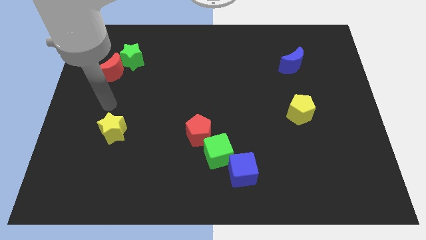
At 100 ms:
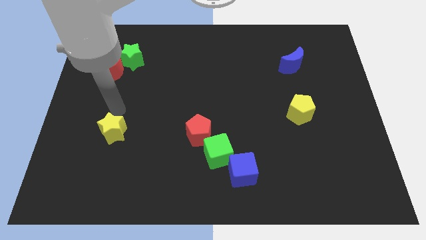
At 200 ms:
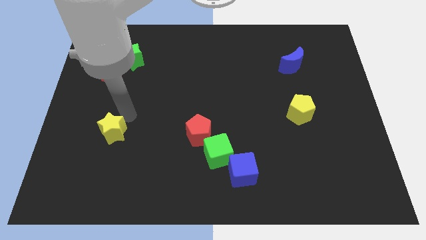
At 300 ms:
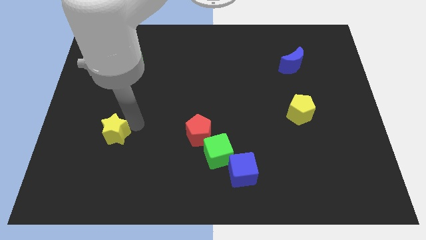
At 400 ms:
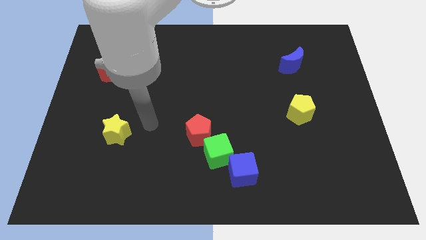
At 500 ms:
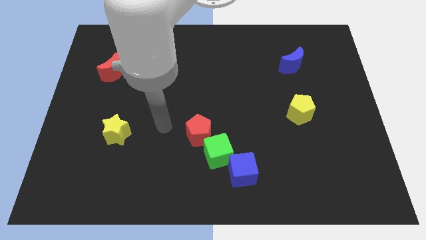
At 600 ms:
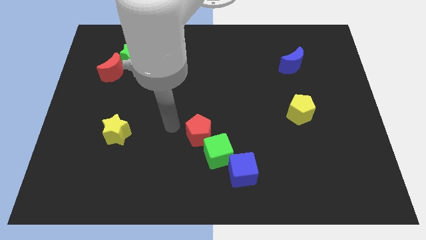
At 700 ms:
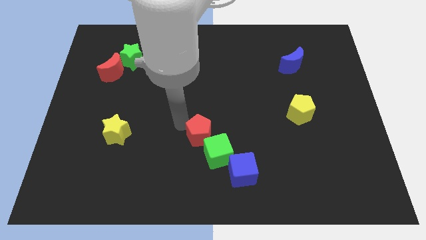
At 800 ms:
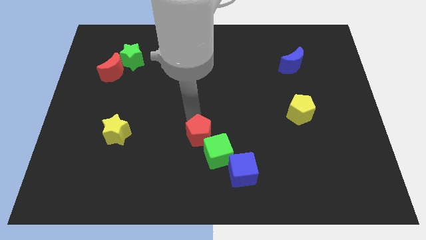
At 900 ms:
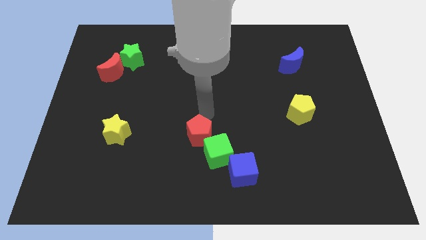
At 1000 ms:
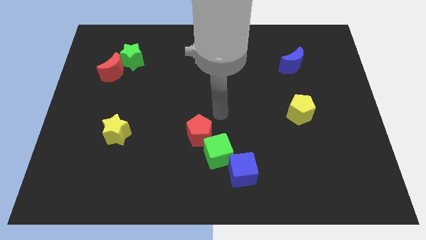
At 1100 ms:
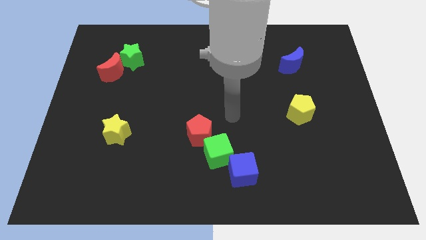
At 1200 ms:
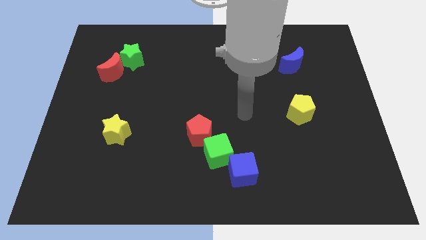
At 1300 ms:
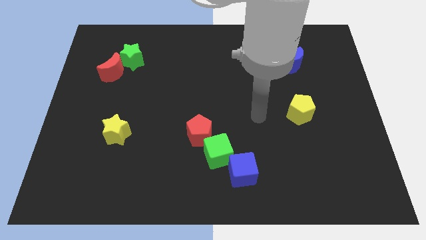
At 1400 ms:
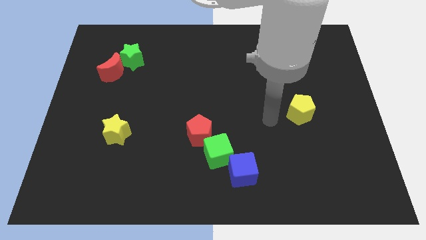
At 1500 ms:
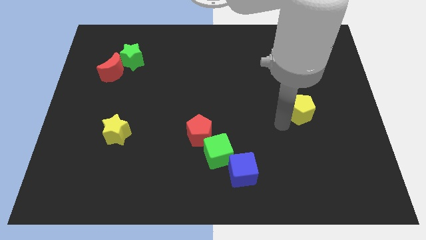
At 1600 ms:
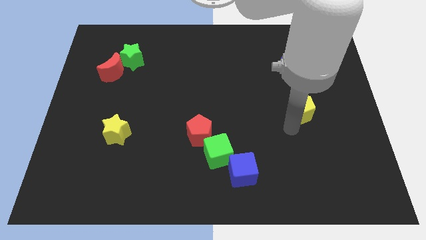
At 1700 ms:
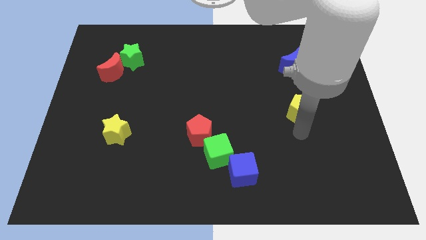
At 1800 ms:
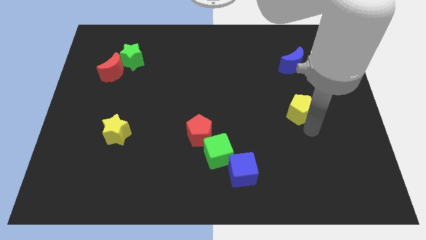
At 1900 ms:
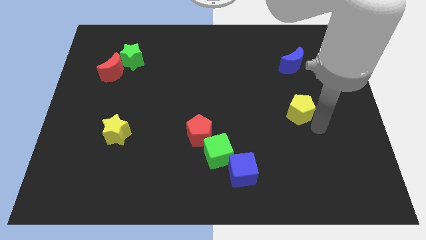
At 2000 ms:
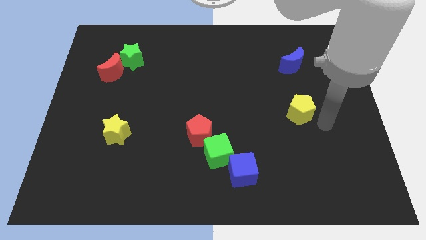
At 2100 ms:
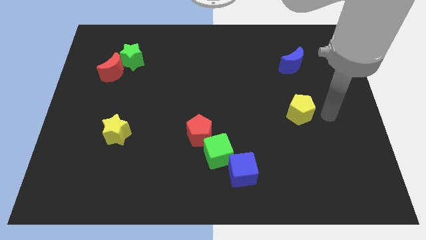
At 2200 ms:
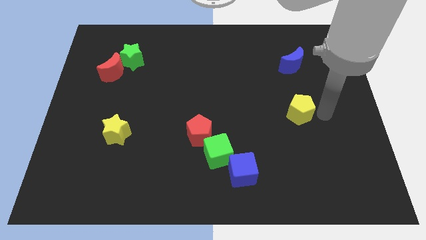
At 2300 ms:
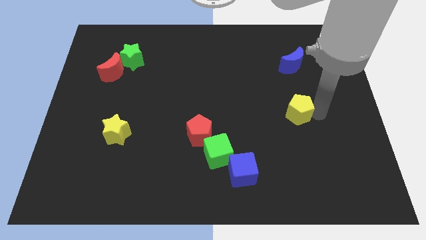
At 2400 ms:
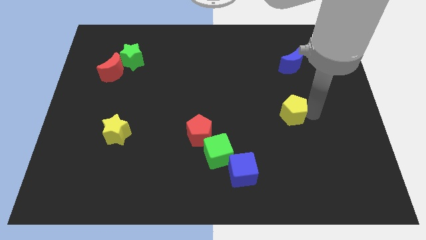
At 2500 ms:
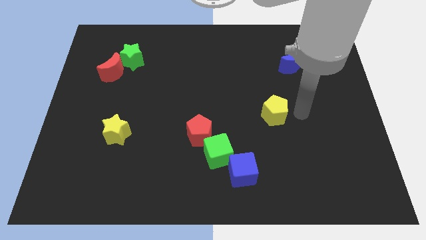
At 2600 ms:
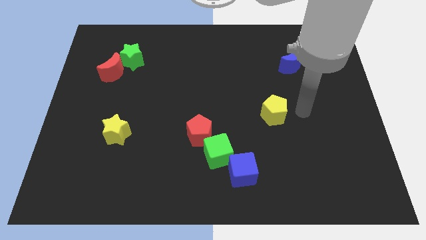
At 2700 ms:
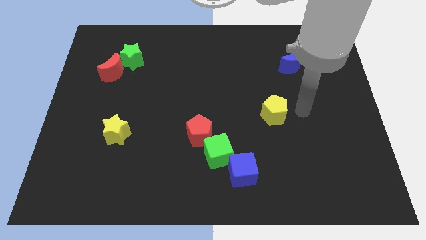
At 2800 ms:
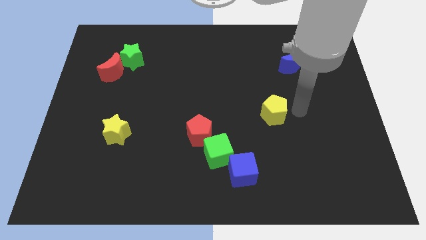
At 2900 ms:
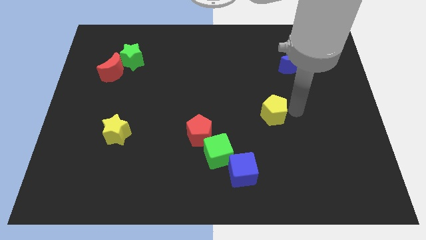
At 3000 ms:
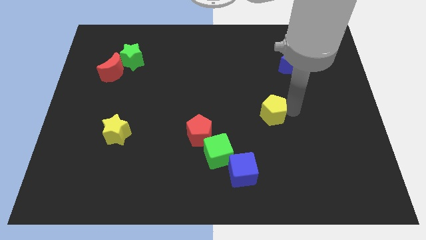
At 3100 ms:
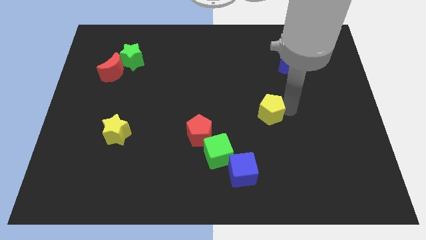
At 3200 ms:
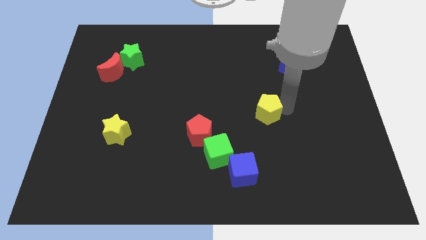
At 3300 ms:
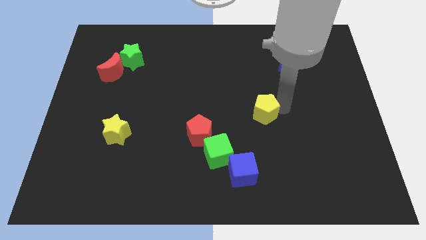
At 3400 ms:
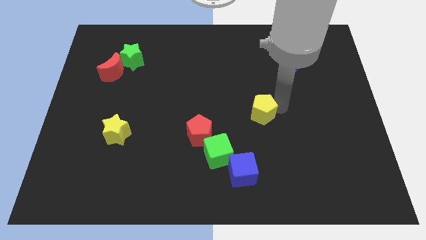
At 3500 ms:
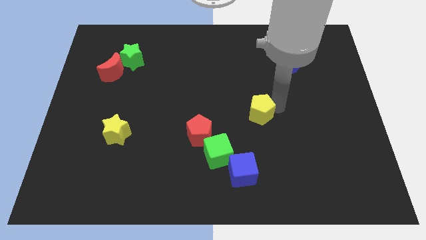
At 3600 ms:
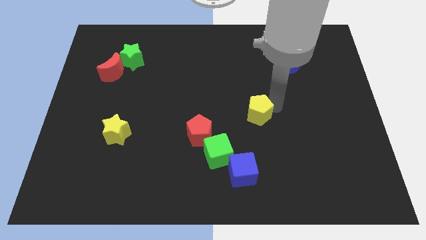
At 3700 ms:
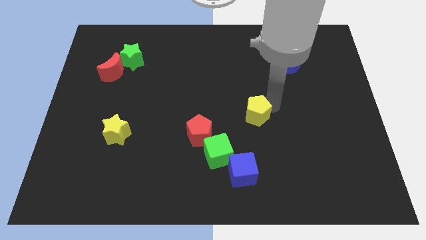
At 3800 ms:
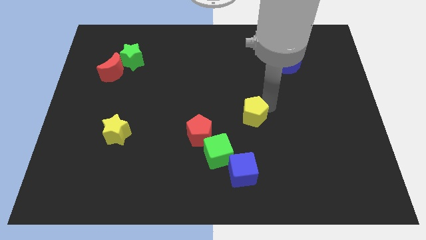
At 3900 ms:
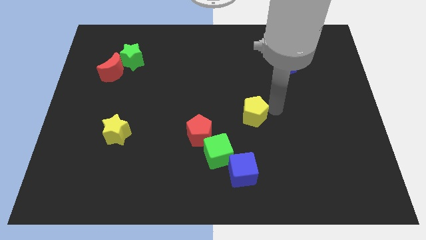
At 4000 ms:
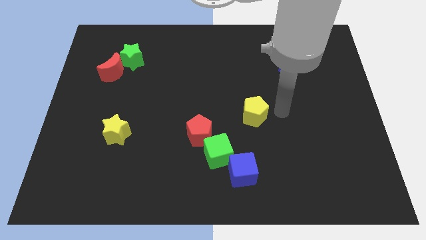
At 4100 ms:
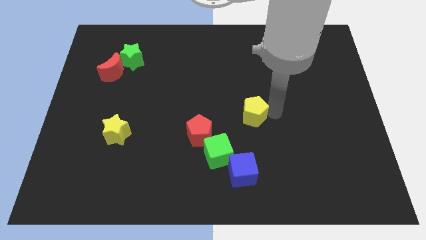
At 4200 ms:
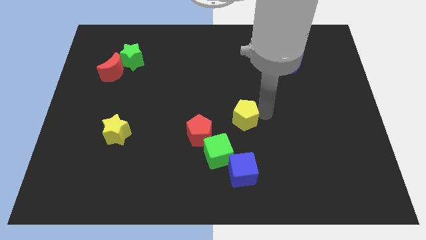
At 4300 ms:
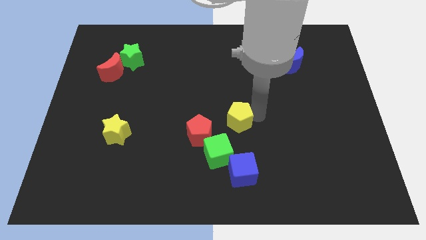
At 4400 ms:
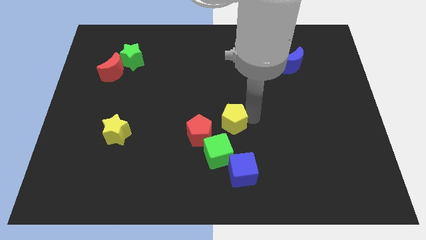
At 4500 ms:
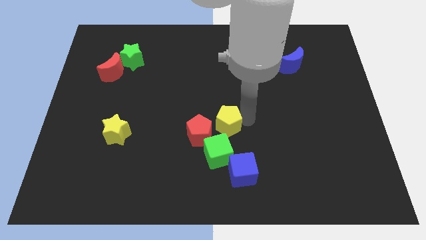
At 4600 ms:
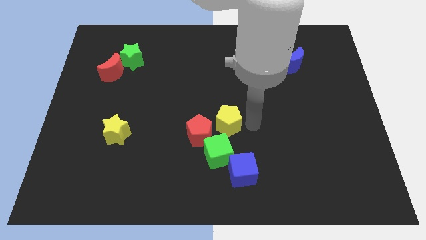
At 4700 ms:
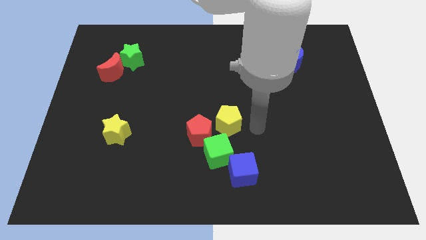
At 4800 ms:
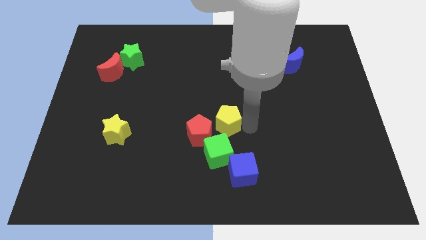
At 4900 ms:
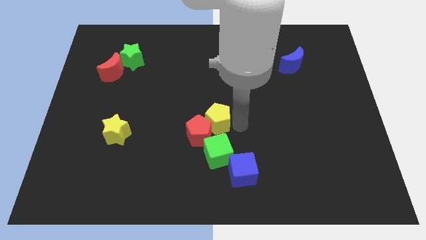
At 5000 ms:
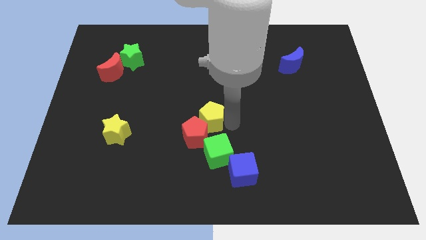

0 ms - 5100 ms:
slide the yellow pentagon to the left

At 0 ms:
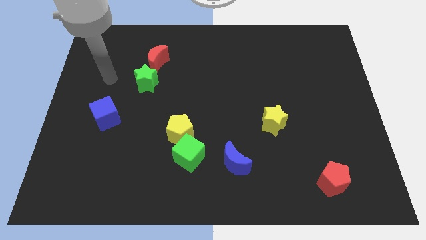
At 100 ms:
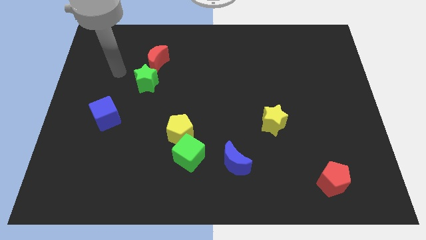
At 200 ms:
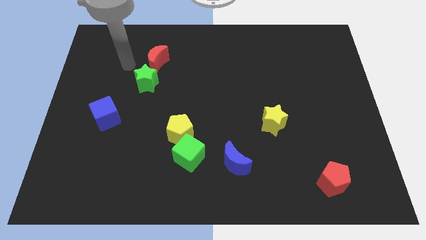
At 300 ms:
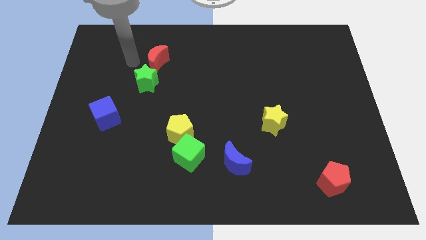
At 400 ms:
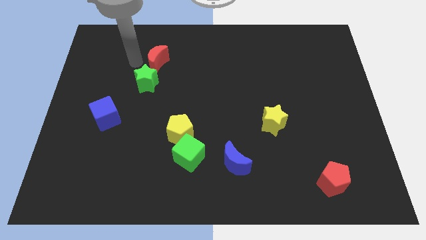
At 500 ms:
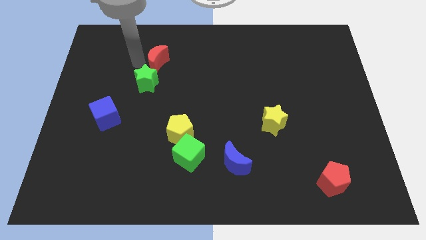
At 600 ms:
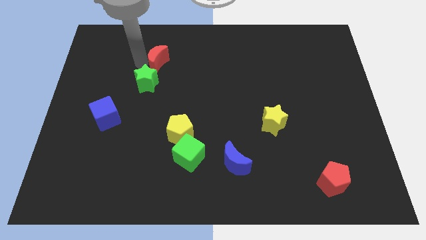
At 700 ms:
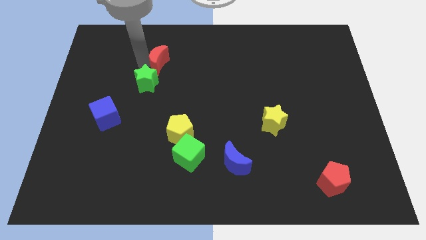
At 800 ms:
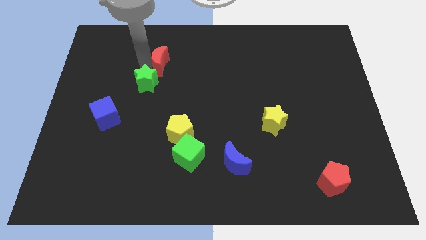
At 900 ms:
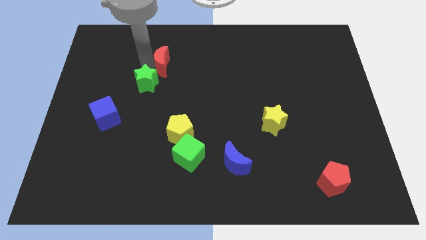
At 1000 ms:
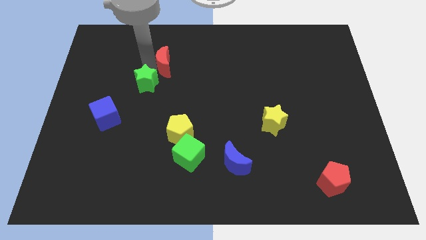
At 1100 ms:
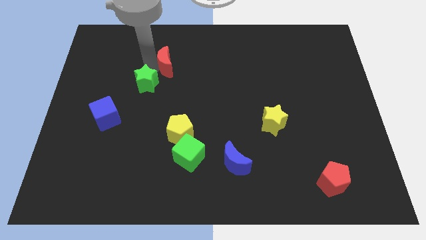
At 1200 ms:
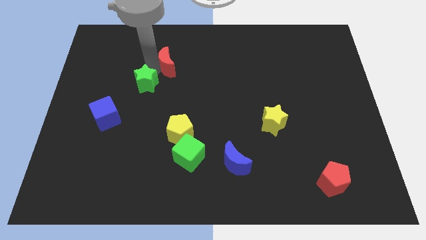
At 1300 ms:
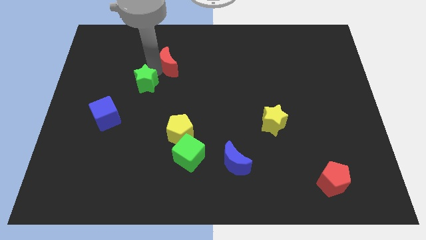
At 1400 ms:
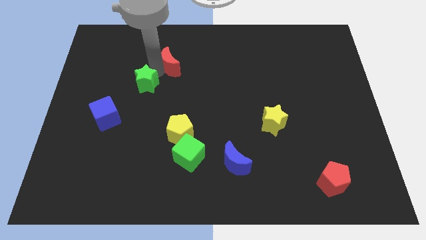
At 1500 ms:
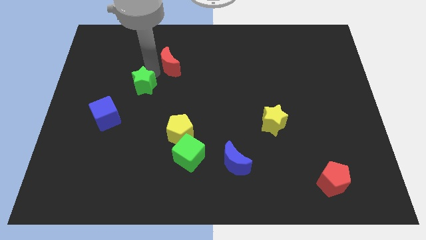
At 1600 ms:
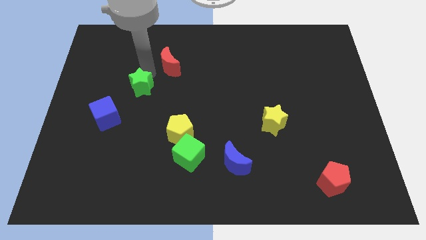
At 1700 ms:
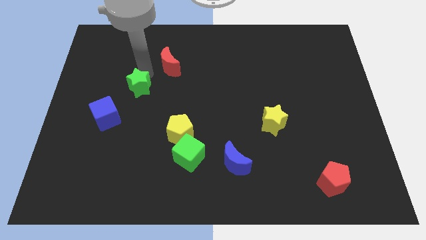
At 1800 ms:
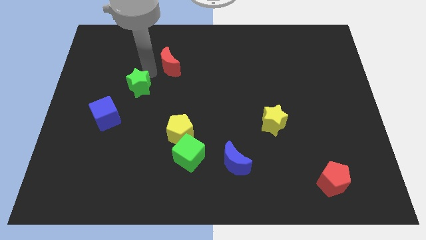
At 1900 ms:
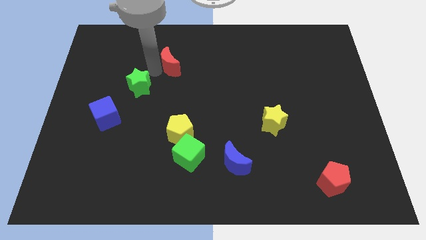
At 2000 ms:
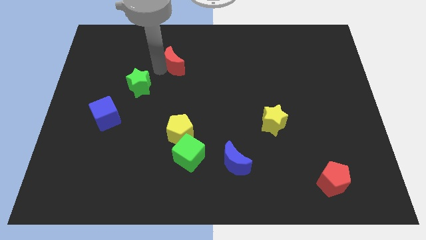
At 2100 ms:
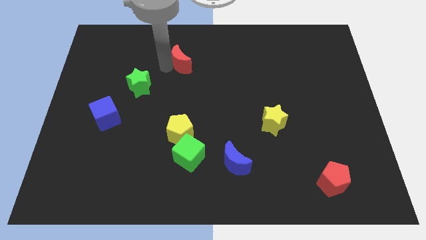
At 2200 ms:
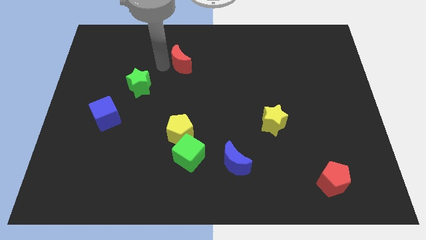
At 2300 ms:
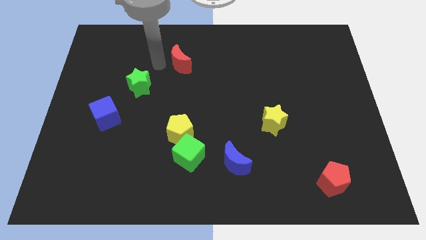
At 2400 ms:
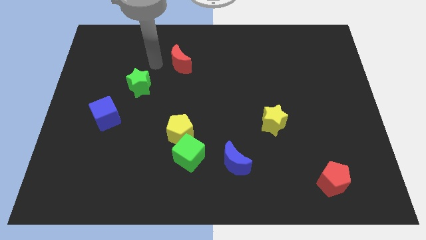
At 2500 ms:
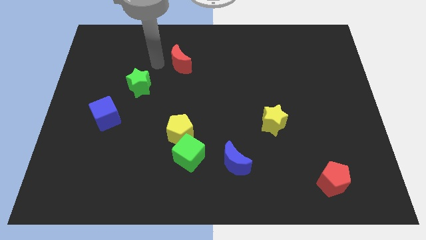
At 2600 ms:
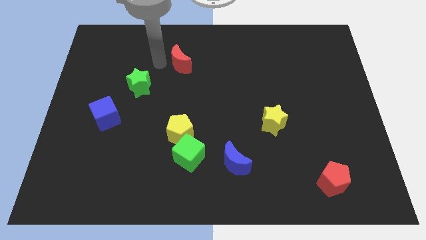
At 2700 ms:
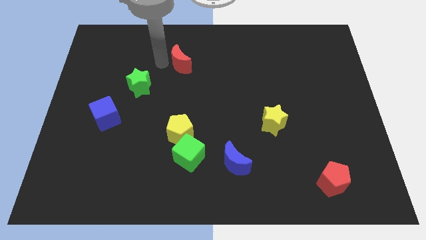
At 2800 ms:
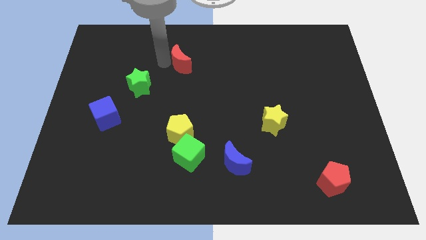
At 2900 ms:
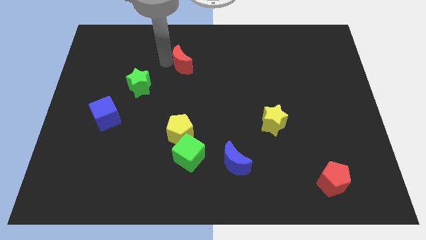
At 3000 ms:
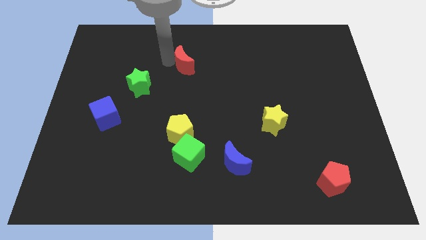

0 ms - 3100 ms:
push the red moon right a little
